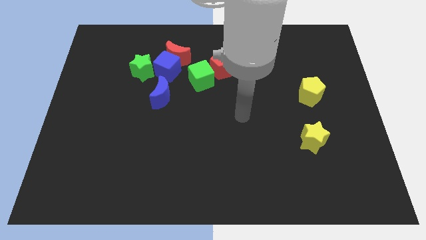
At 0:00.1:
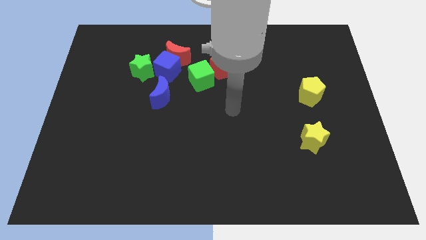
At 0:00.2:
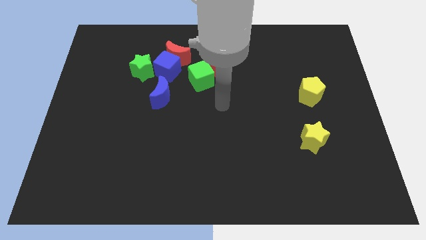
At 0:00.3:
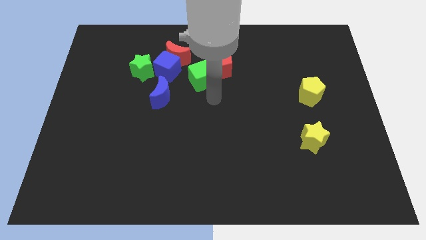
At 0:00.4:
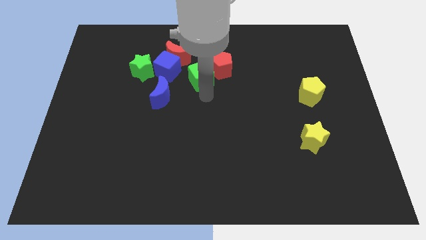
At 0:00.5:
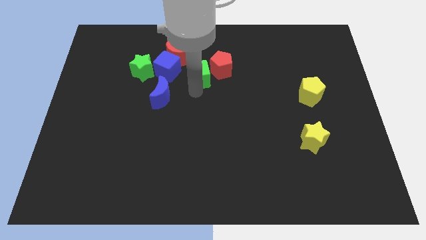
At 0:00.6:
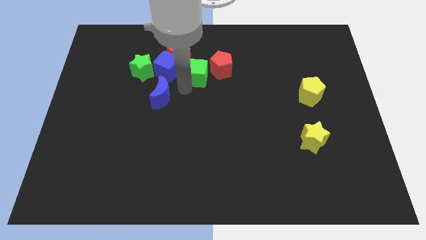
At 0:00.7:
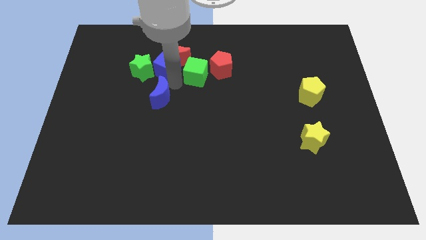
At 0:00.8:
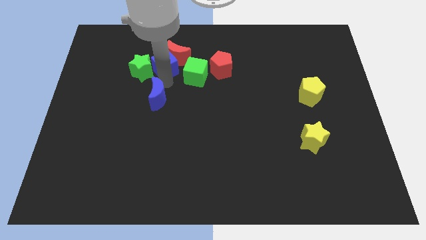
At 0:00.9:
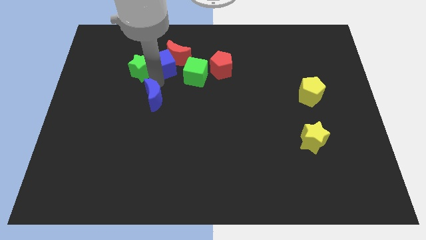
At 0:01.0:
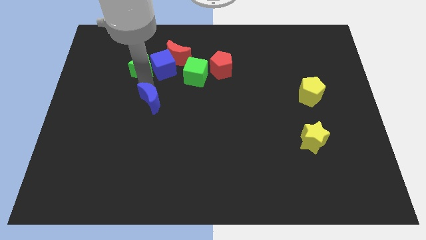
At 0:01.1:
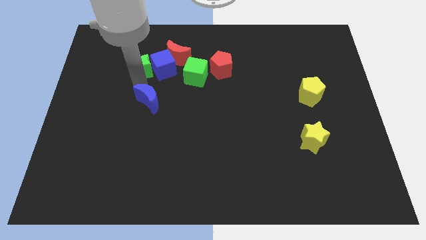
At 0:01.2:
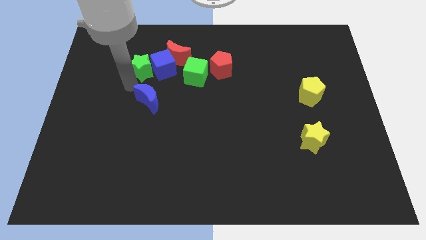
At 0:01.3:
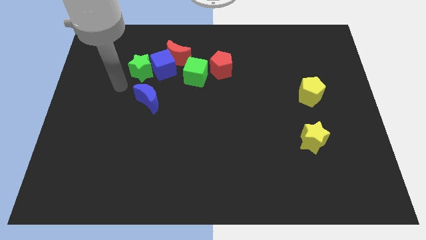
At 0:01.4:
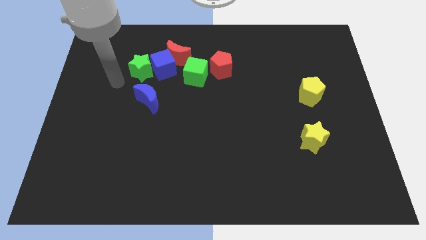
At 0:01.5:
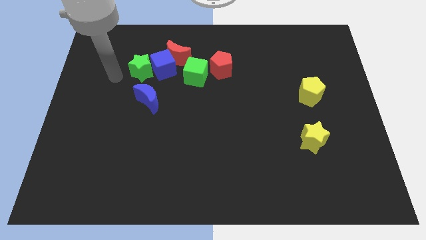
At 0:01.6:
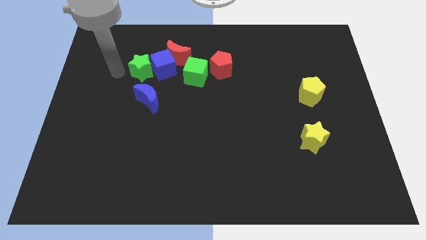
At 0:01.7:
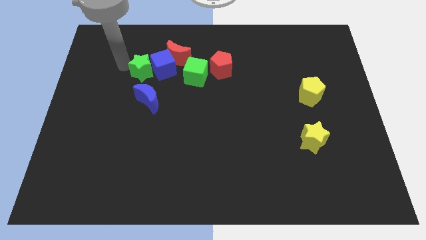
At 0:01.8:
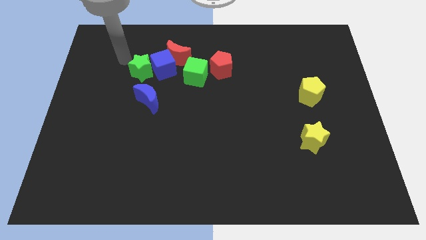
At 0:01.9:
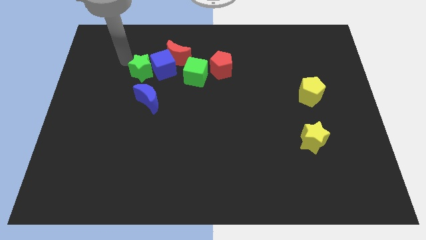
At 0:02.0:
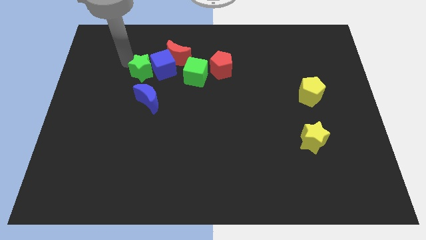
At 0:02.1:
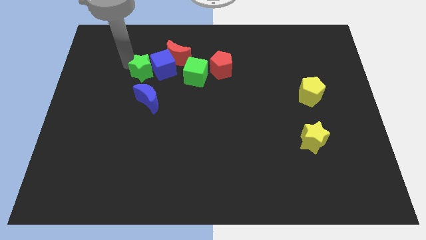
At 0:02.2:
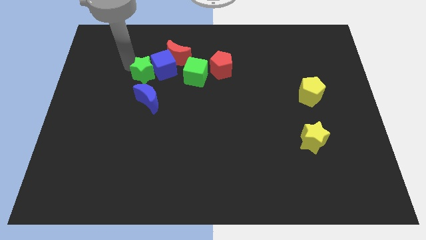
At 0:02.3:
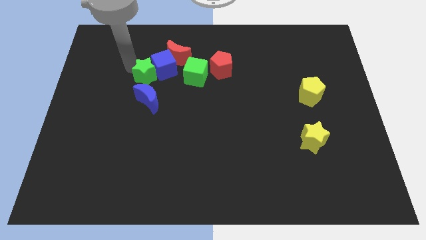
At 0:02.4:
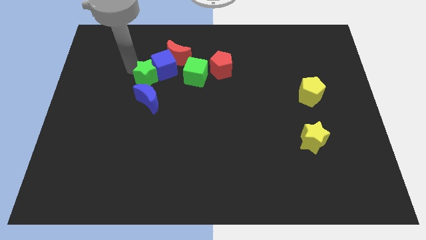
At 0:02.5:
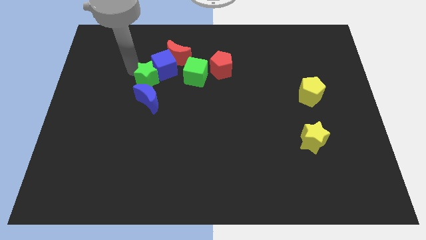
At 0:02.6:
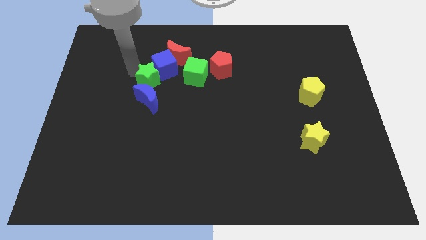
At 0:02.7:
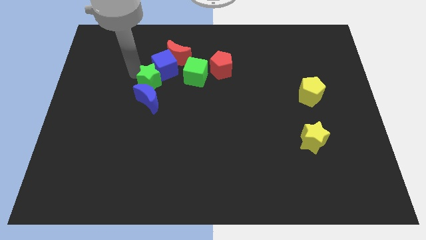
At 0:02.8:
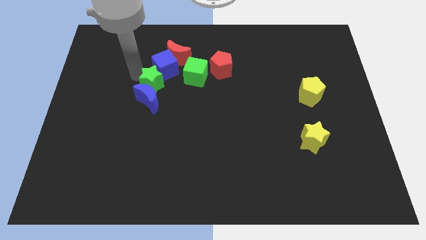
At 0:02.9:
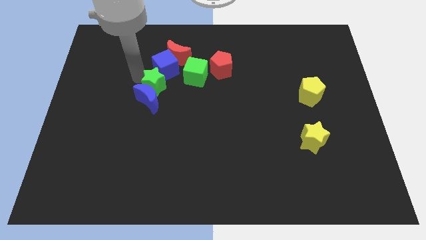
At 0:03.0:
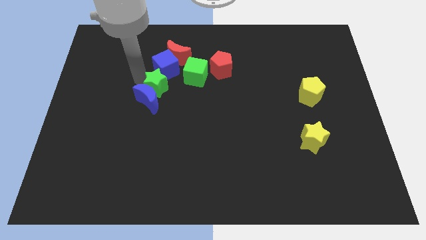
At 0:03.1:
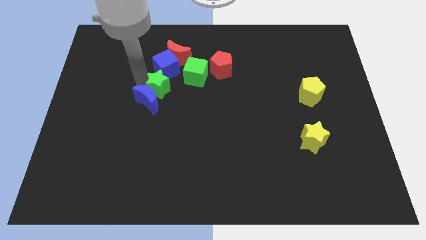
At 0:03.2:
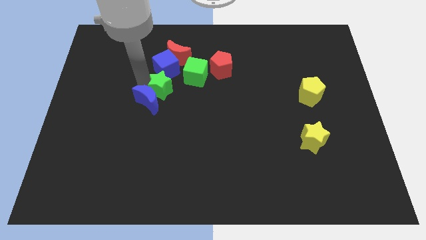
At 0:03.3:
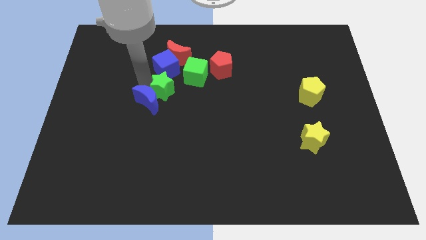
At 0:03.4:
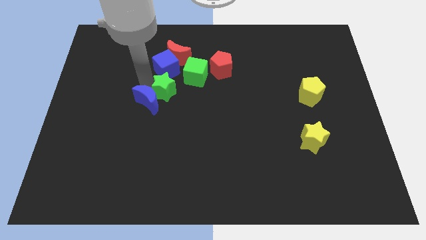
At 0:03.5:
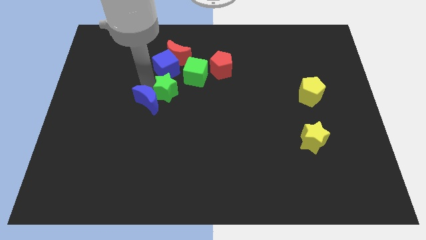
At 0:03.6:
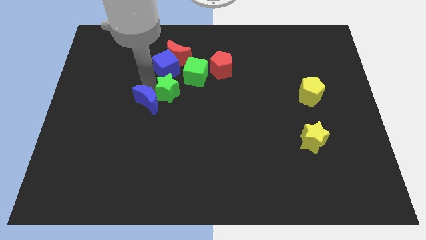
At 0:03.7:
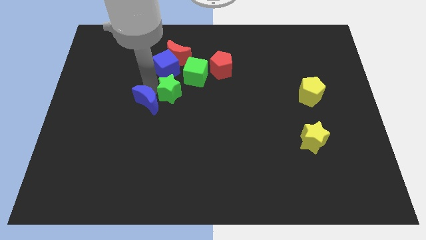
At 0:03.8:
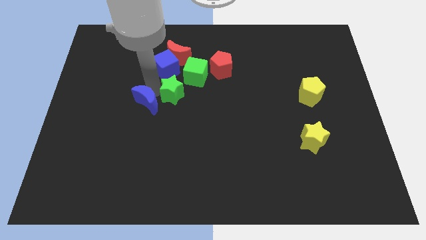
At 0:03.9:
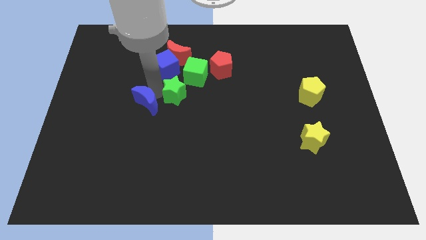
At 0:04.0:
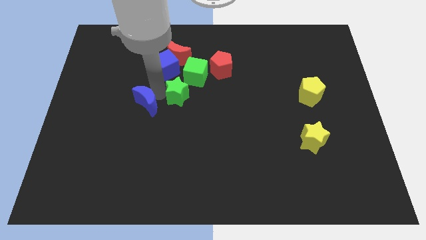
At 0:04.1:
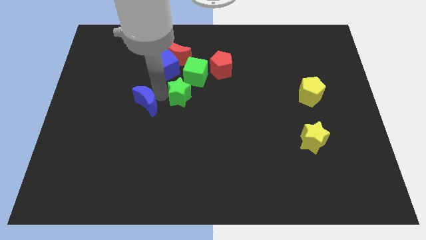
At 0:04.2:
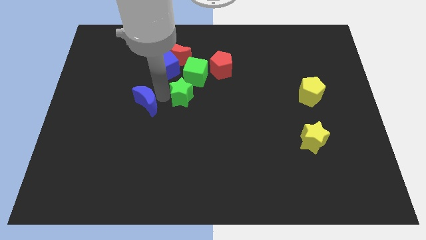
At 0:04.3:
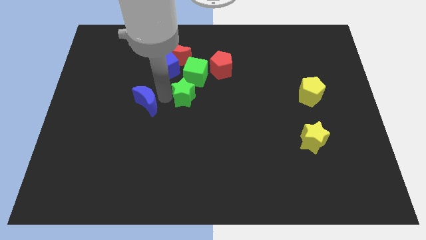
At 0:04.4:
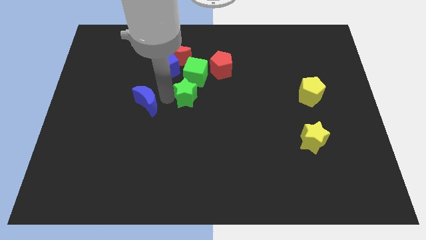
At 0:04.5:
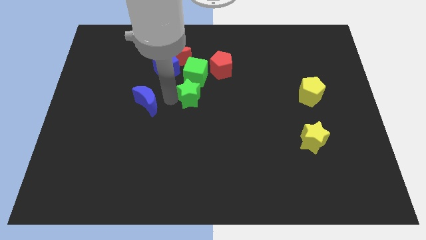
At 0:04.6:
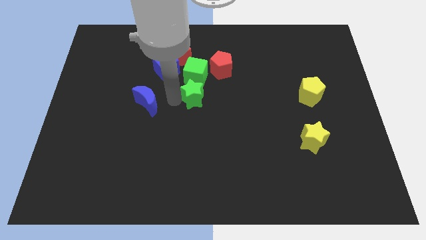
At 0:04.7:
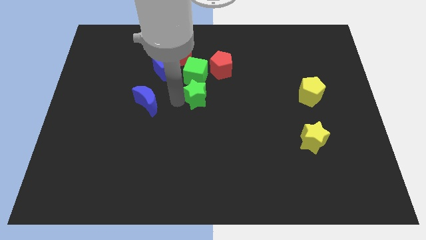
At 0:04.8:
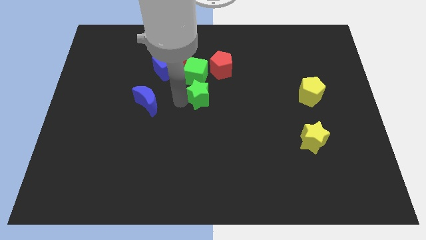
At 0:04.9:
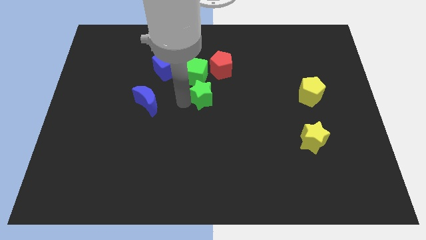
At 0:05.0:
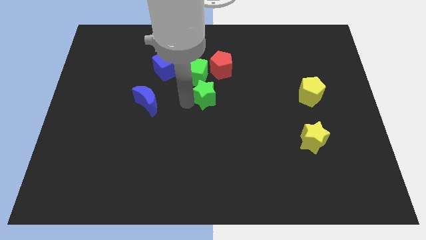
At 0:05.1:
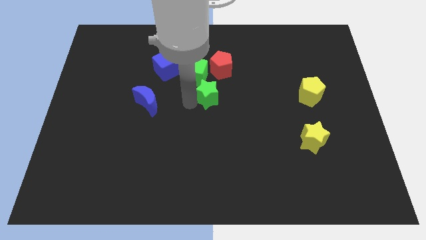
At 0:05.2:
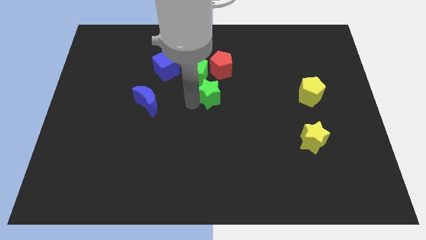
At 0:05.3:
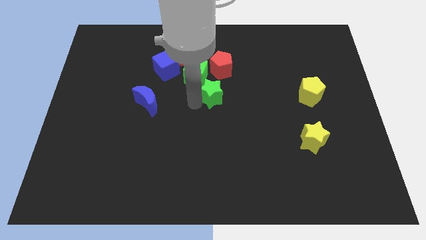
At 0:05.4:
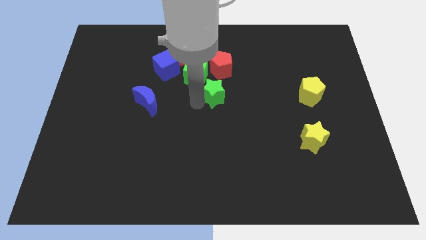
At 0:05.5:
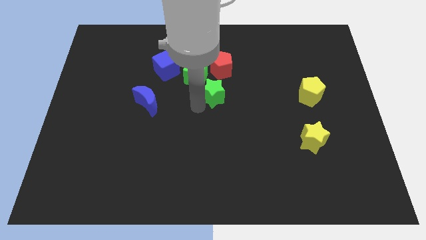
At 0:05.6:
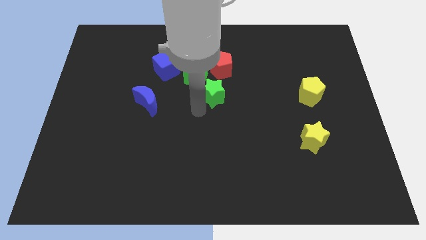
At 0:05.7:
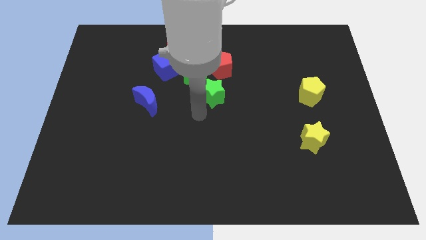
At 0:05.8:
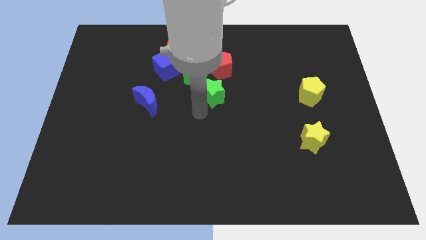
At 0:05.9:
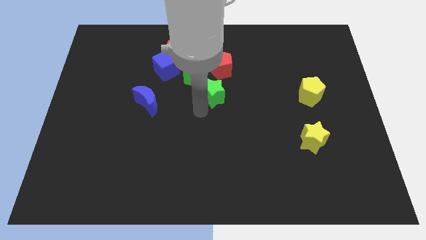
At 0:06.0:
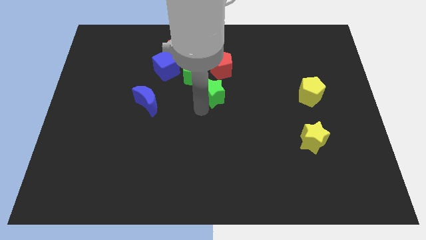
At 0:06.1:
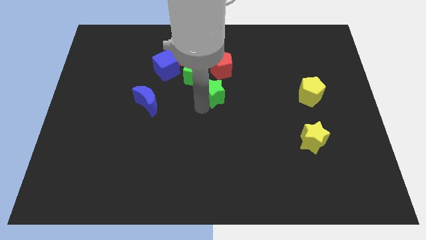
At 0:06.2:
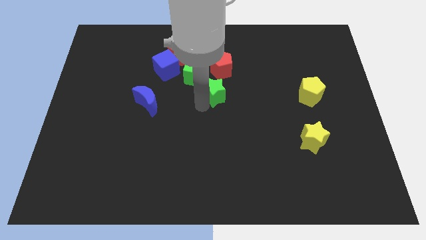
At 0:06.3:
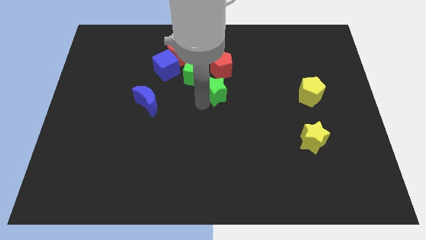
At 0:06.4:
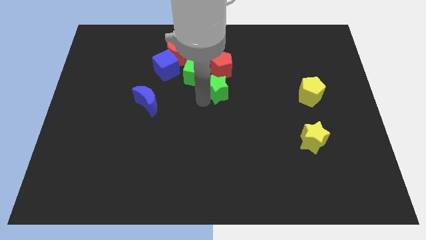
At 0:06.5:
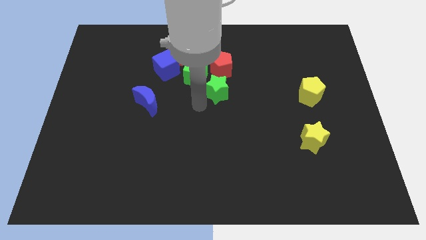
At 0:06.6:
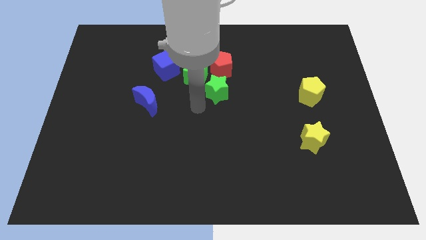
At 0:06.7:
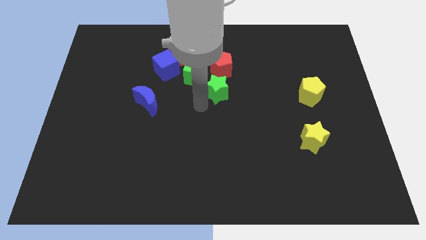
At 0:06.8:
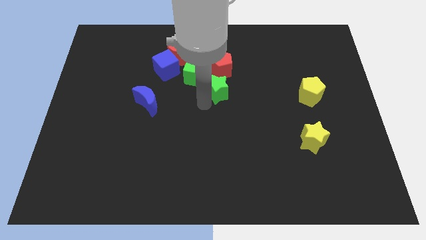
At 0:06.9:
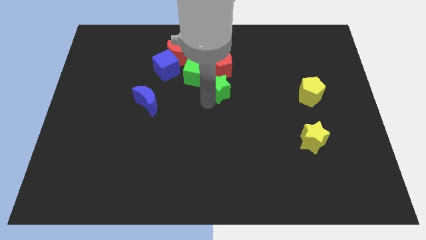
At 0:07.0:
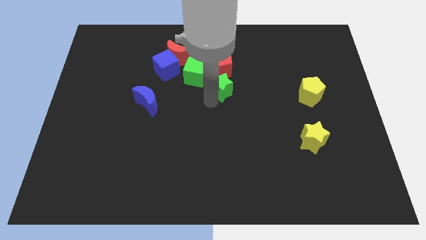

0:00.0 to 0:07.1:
move the green star to the right side of the green cube

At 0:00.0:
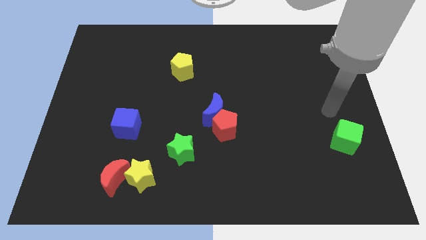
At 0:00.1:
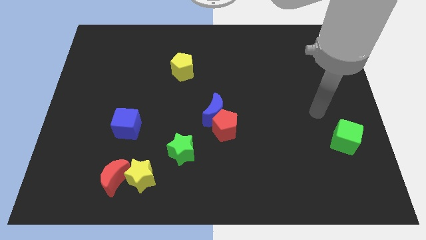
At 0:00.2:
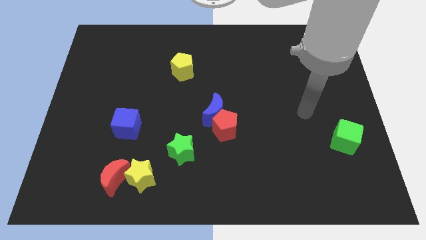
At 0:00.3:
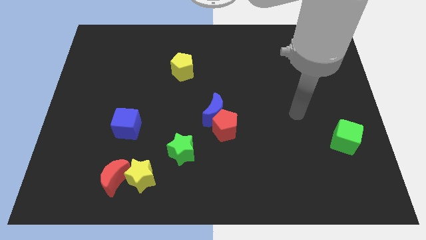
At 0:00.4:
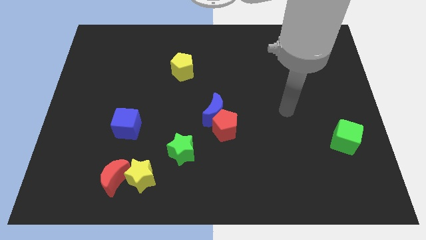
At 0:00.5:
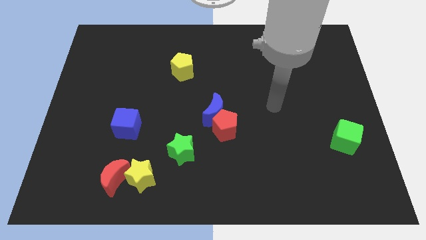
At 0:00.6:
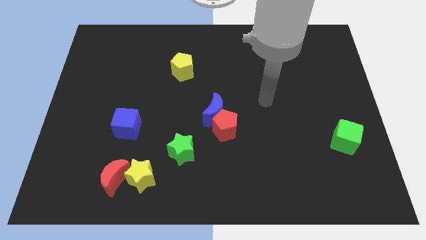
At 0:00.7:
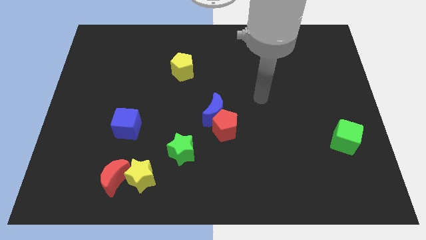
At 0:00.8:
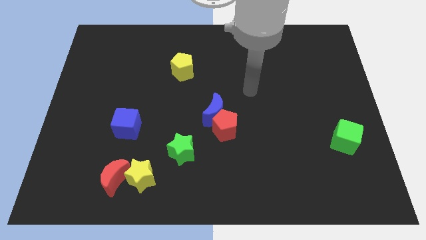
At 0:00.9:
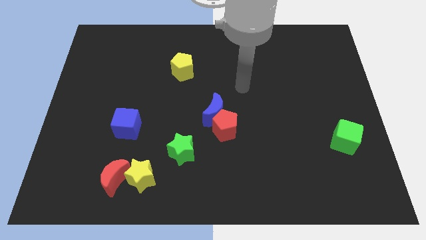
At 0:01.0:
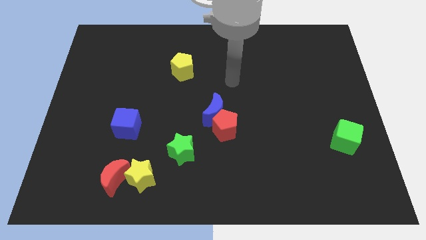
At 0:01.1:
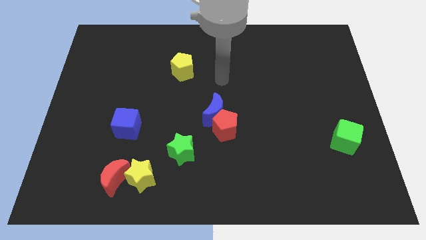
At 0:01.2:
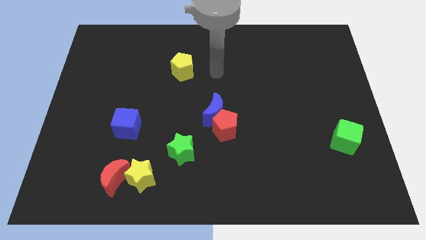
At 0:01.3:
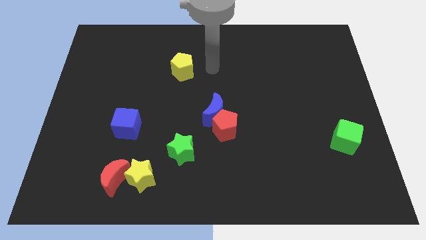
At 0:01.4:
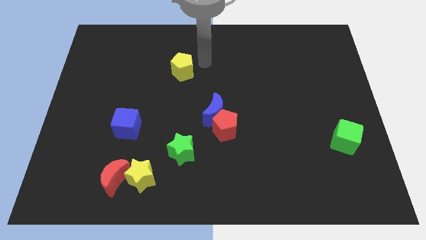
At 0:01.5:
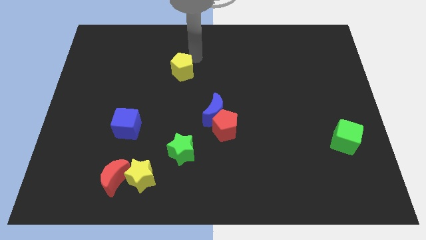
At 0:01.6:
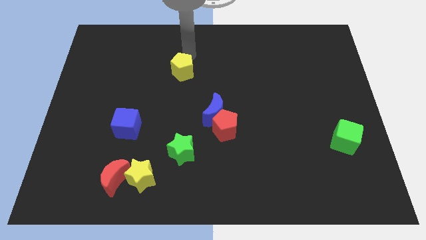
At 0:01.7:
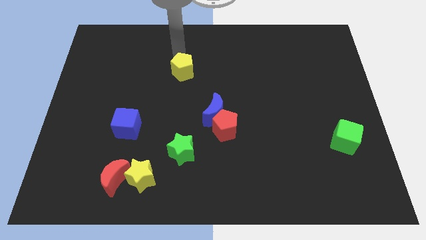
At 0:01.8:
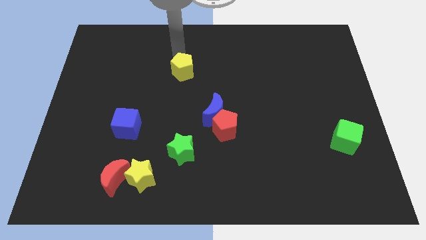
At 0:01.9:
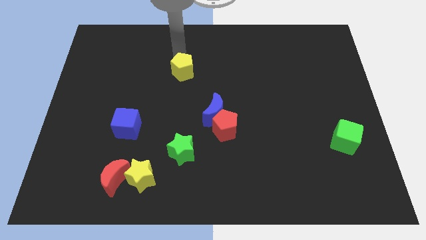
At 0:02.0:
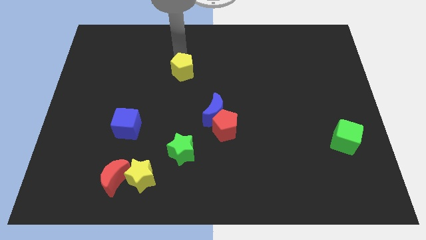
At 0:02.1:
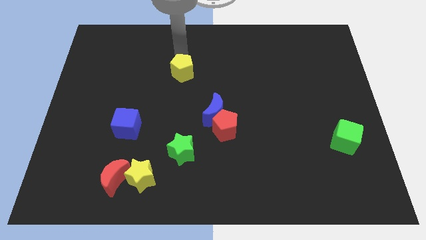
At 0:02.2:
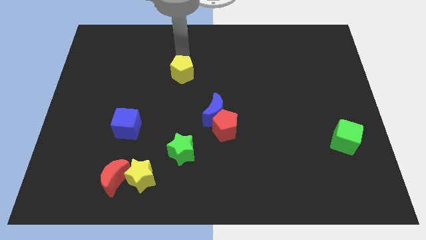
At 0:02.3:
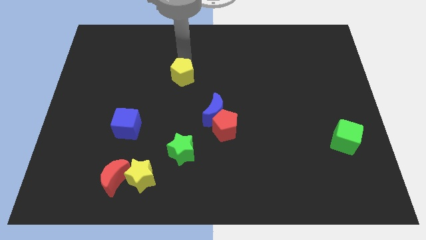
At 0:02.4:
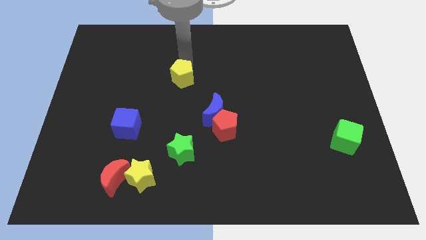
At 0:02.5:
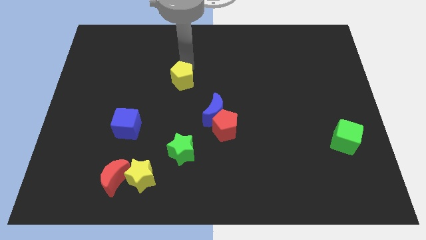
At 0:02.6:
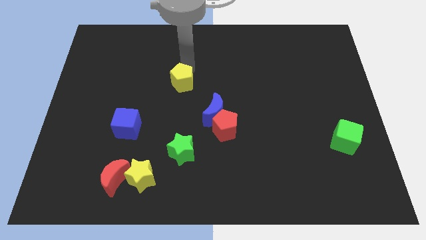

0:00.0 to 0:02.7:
slide the yellow pentagon to the top left of the blue moon
